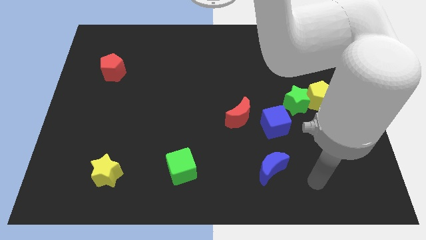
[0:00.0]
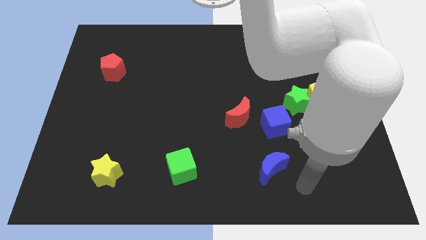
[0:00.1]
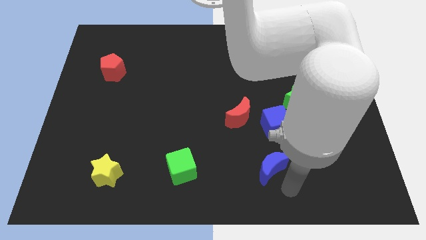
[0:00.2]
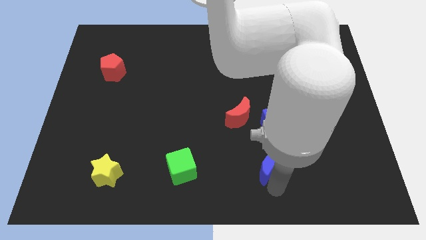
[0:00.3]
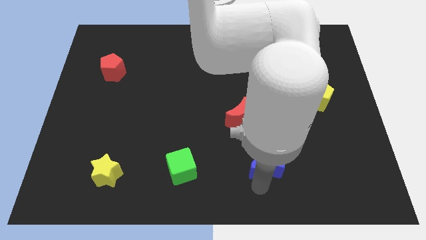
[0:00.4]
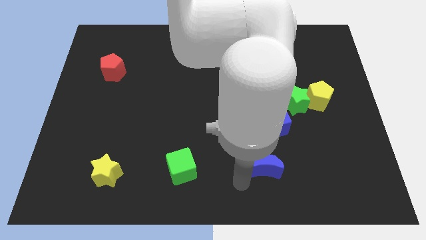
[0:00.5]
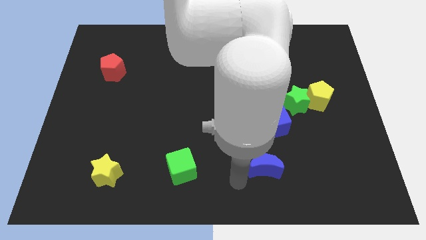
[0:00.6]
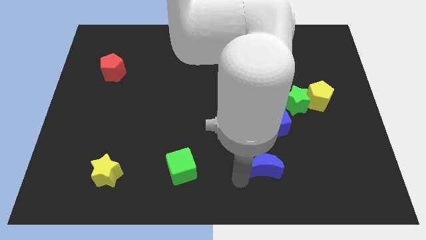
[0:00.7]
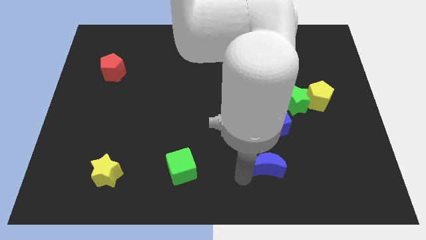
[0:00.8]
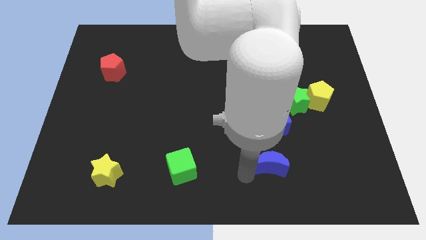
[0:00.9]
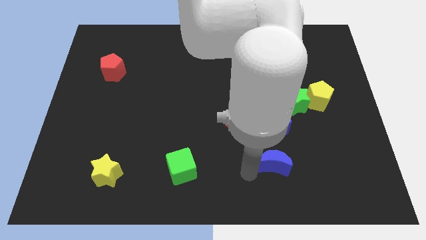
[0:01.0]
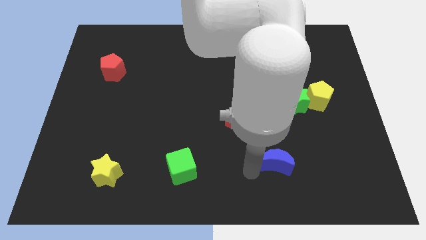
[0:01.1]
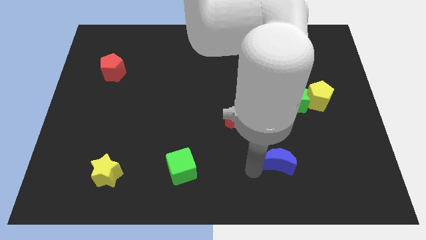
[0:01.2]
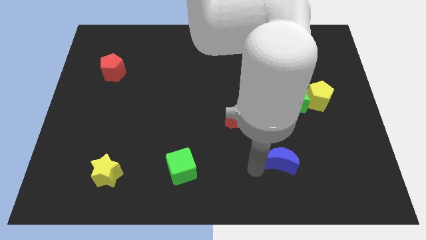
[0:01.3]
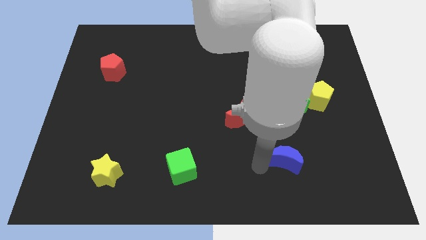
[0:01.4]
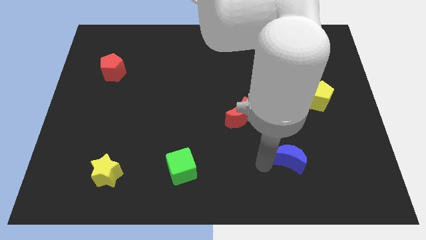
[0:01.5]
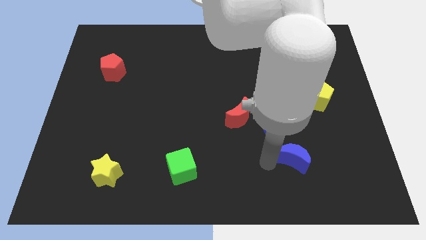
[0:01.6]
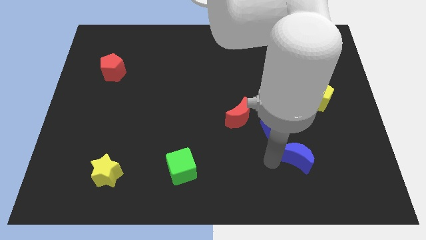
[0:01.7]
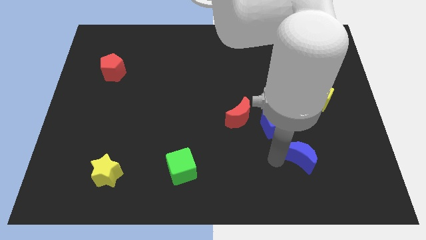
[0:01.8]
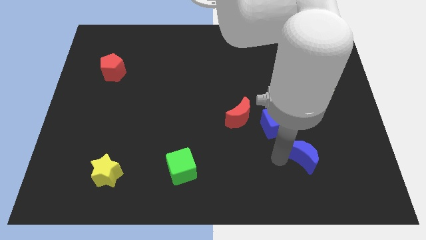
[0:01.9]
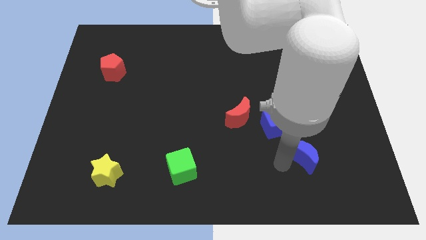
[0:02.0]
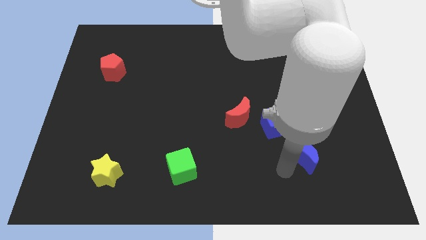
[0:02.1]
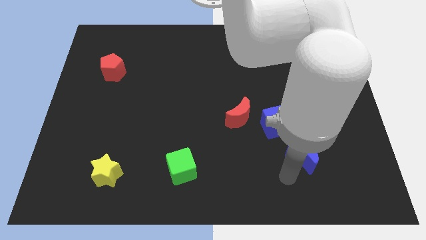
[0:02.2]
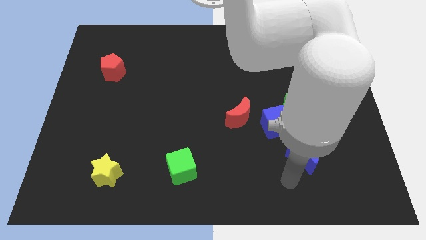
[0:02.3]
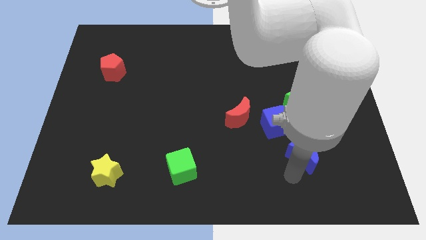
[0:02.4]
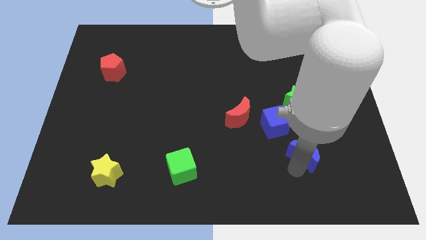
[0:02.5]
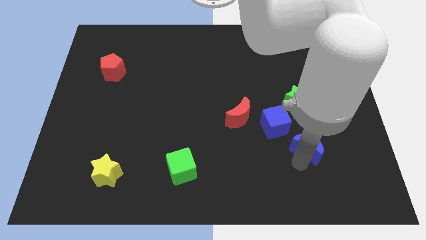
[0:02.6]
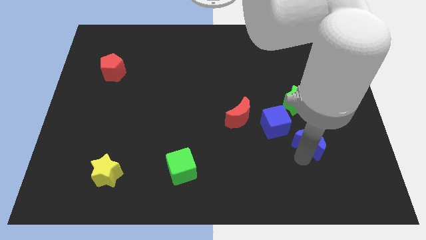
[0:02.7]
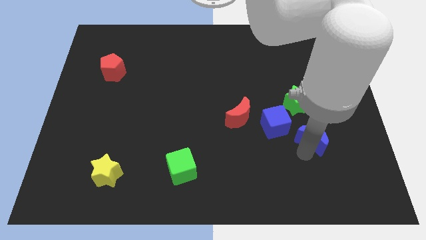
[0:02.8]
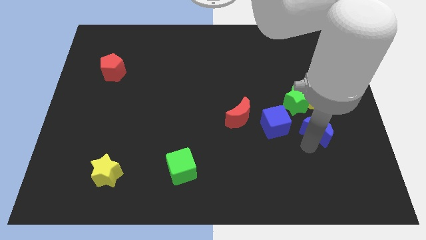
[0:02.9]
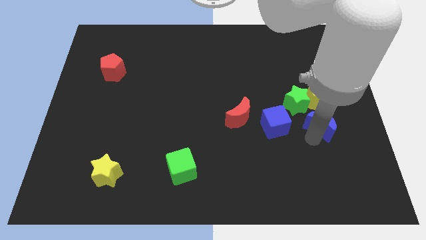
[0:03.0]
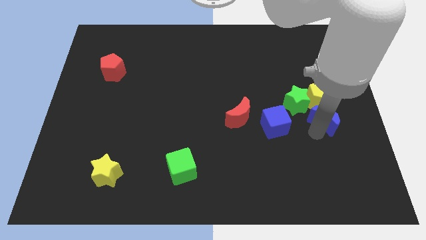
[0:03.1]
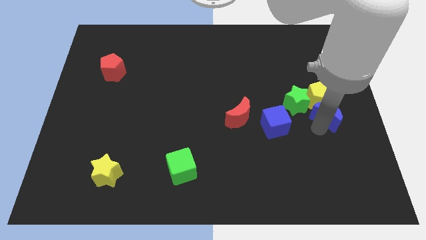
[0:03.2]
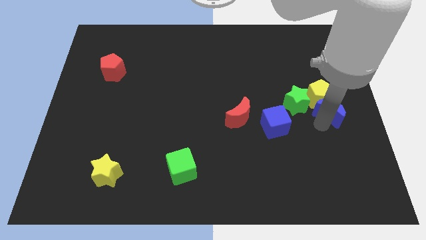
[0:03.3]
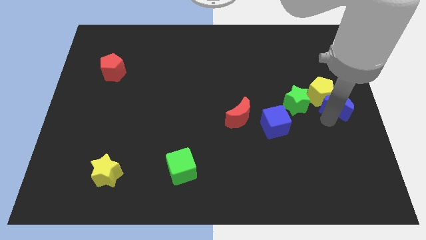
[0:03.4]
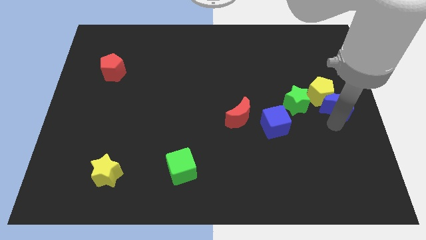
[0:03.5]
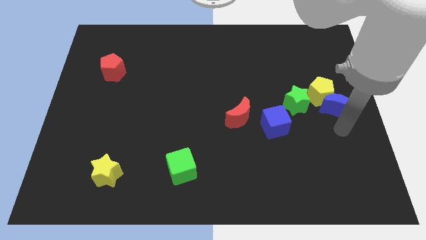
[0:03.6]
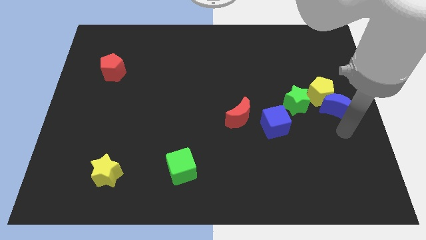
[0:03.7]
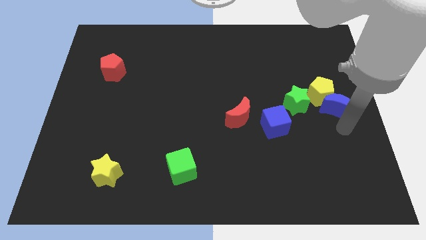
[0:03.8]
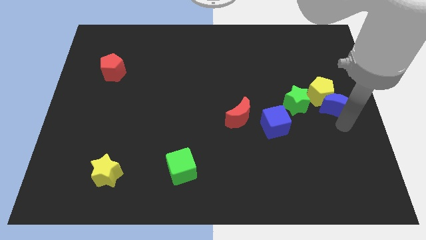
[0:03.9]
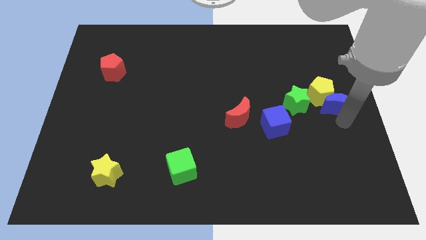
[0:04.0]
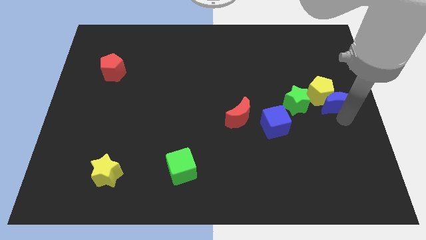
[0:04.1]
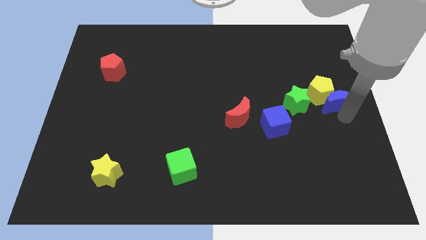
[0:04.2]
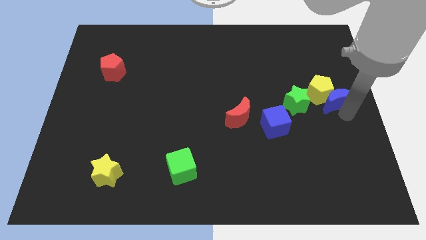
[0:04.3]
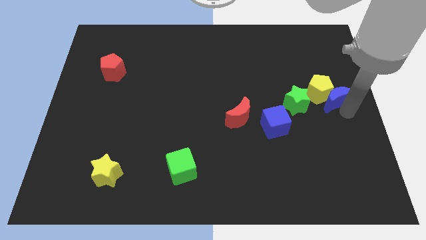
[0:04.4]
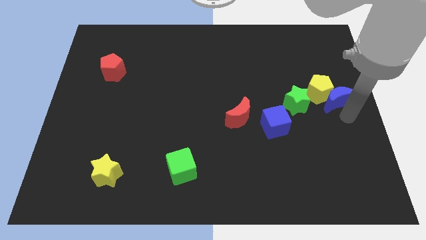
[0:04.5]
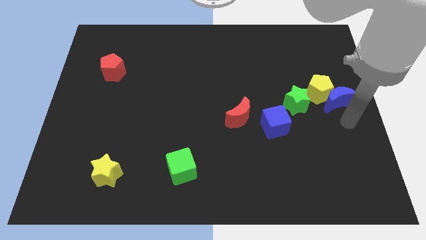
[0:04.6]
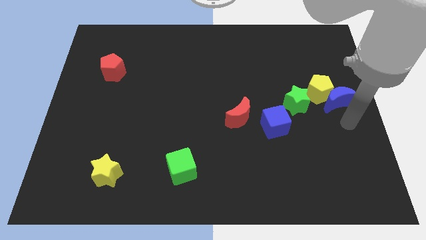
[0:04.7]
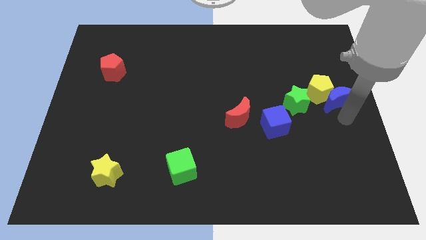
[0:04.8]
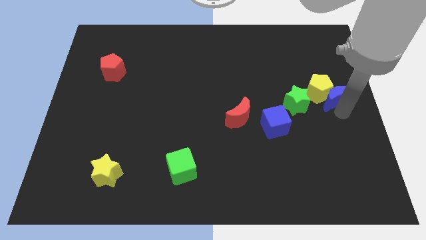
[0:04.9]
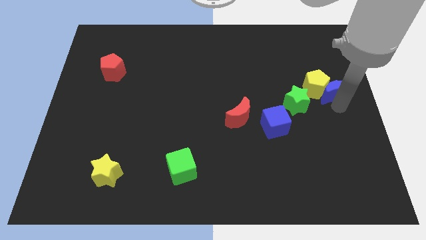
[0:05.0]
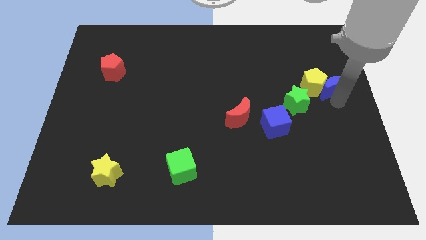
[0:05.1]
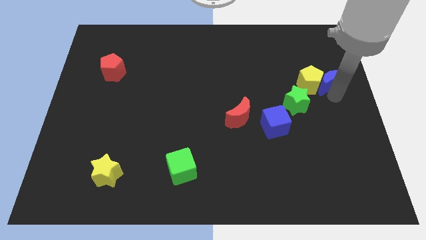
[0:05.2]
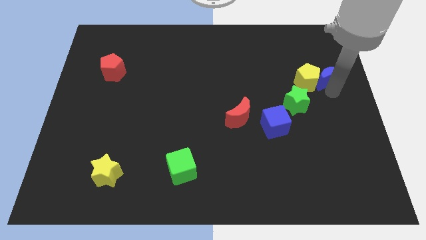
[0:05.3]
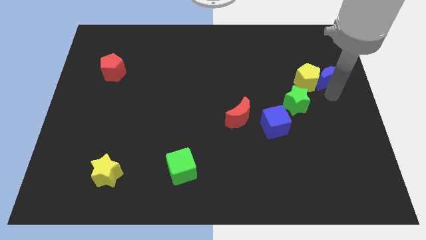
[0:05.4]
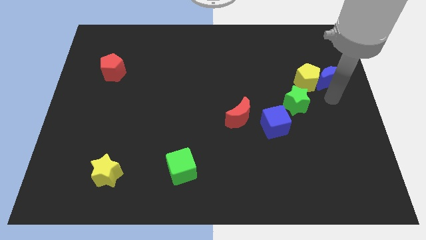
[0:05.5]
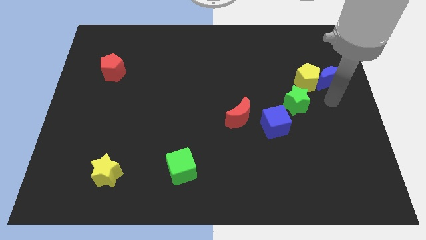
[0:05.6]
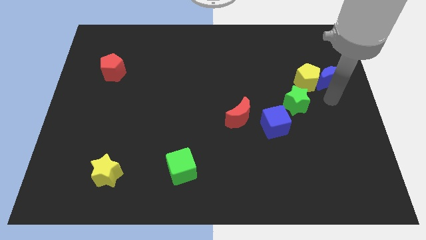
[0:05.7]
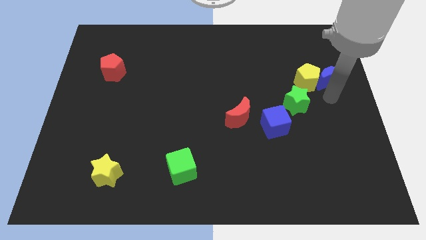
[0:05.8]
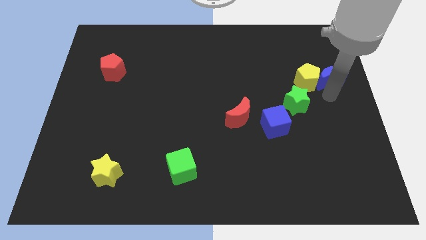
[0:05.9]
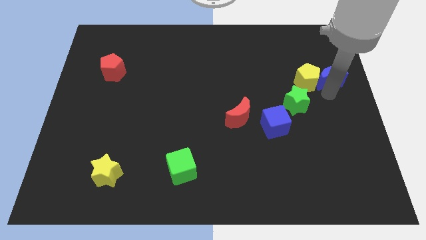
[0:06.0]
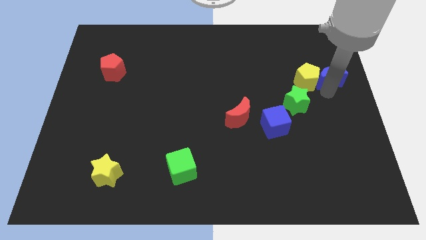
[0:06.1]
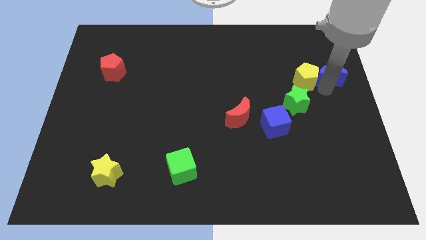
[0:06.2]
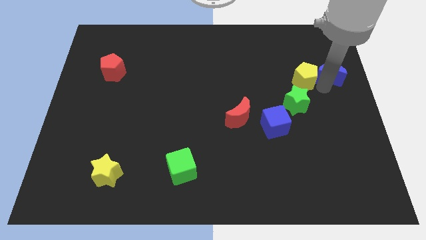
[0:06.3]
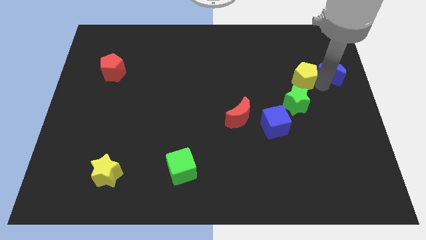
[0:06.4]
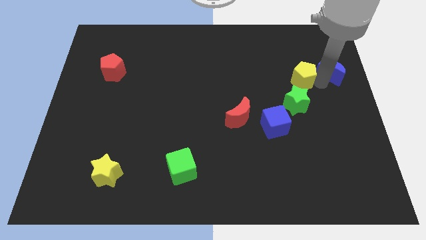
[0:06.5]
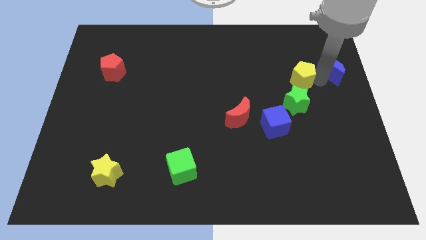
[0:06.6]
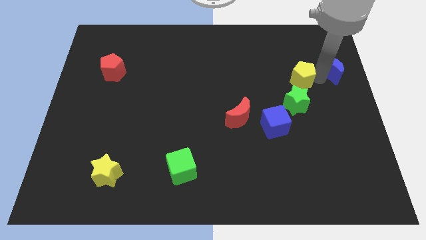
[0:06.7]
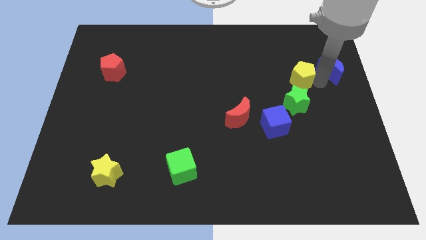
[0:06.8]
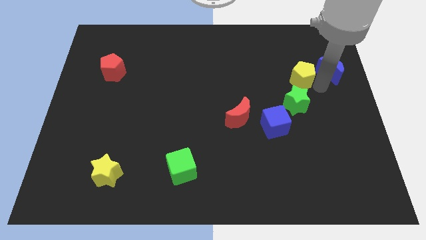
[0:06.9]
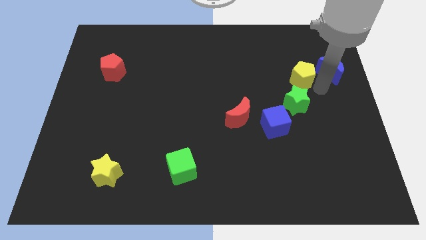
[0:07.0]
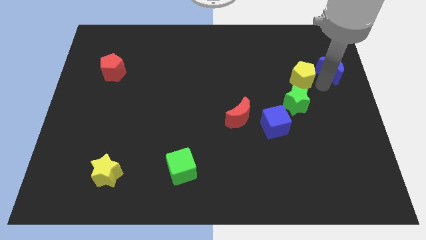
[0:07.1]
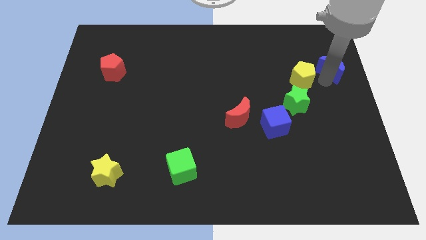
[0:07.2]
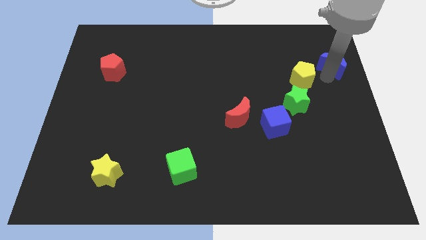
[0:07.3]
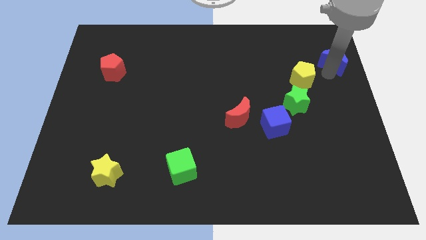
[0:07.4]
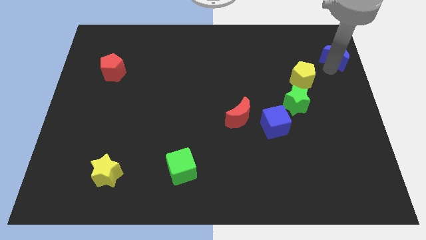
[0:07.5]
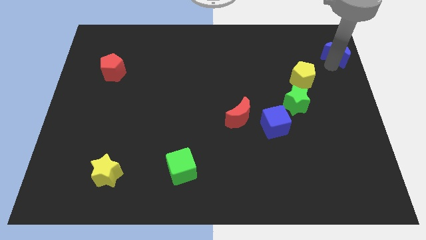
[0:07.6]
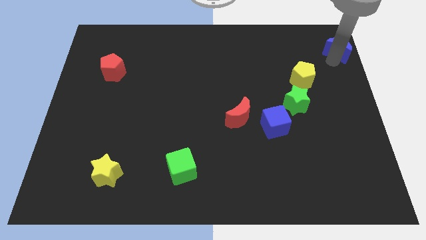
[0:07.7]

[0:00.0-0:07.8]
move the blue moon to the top right corner
